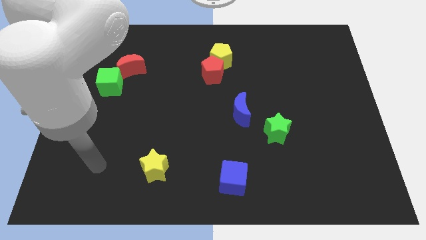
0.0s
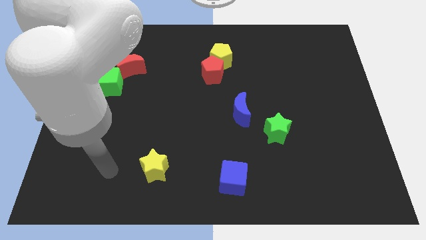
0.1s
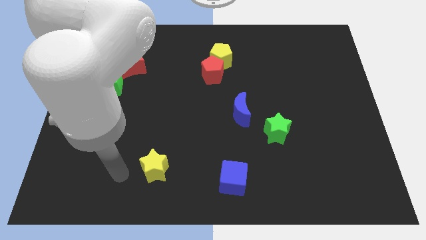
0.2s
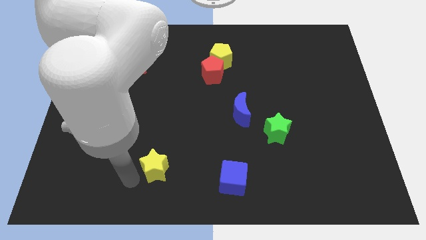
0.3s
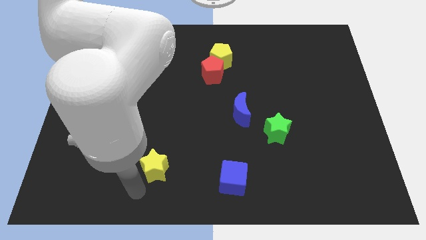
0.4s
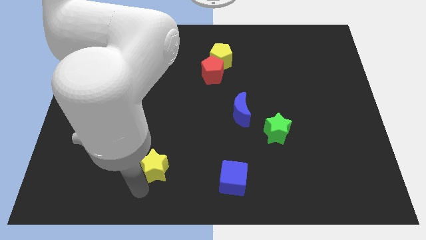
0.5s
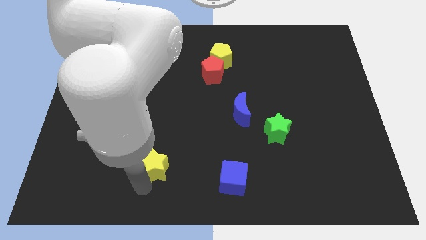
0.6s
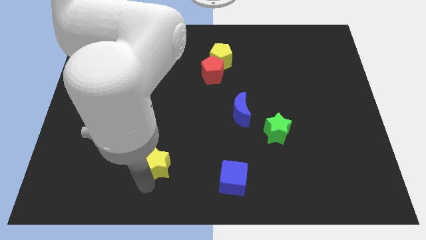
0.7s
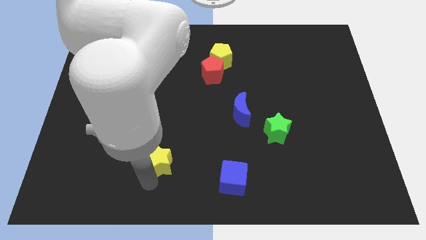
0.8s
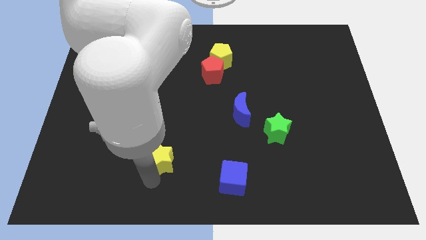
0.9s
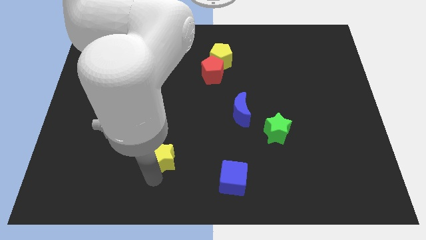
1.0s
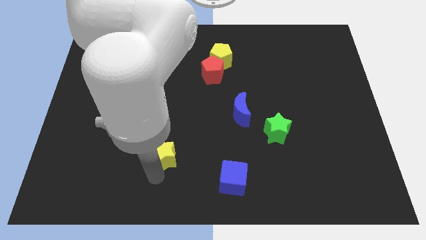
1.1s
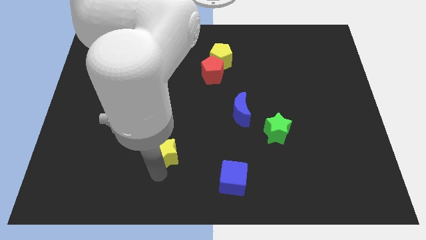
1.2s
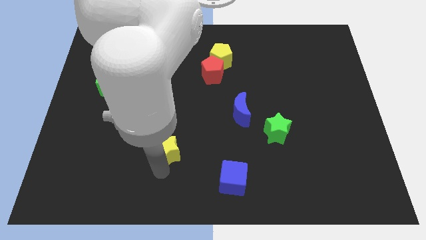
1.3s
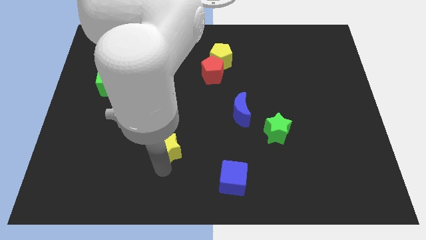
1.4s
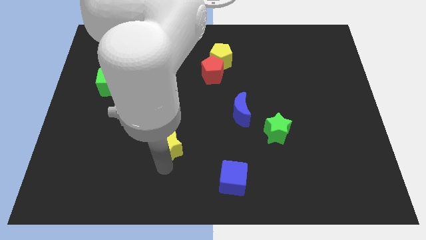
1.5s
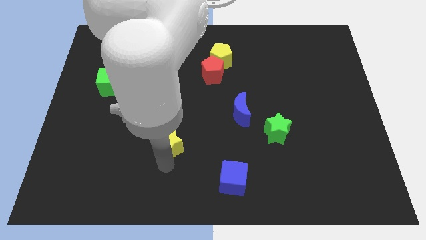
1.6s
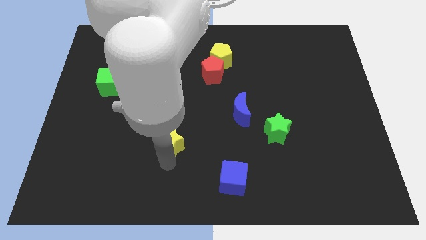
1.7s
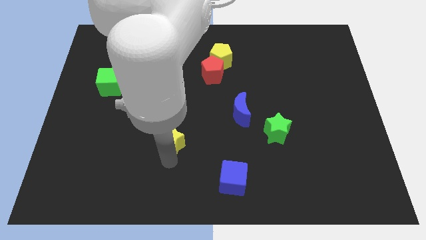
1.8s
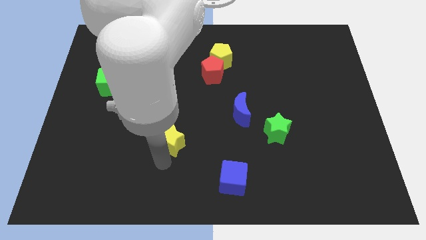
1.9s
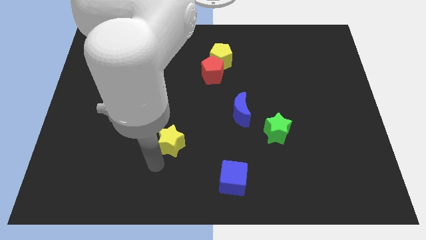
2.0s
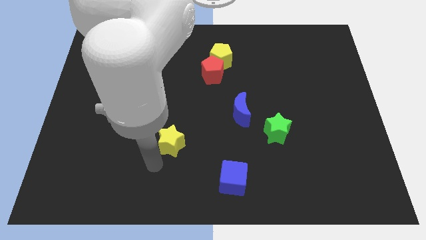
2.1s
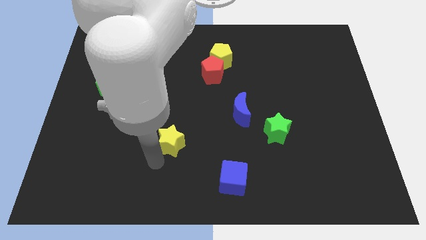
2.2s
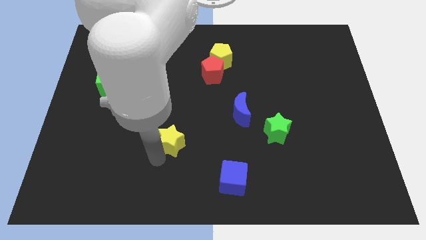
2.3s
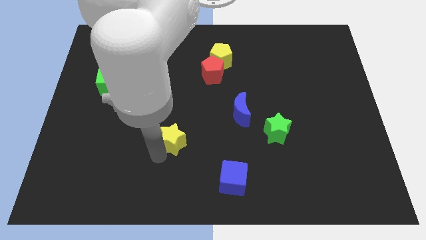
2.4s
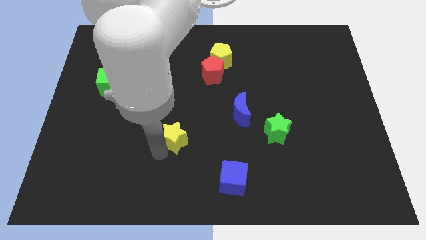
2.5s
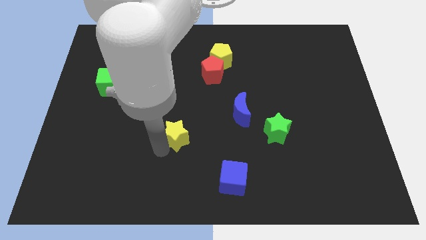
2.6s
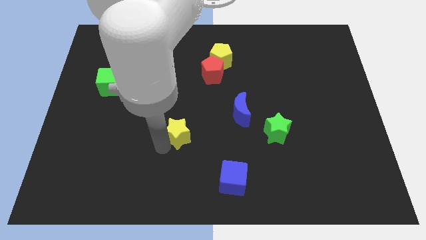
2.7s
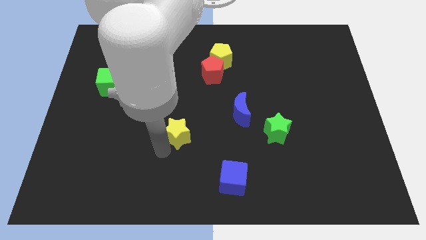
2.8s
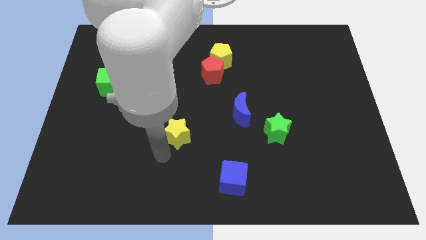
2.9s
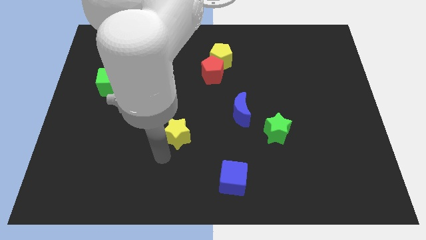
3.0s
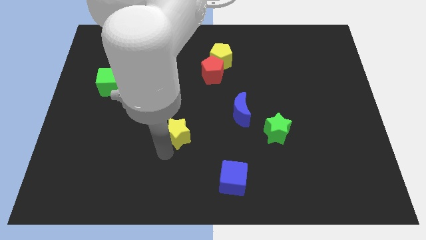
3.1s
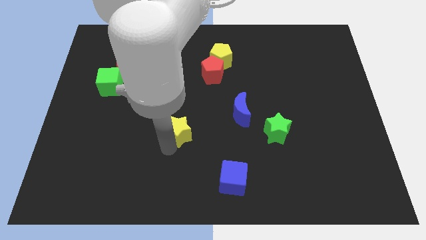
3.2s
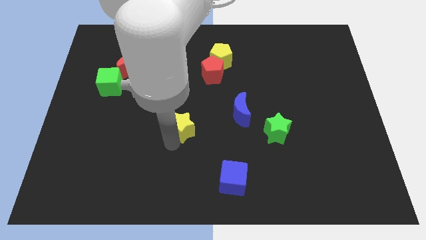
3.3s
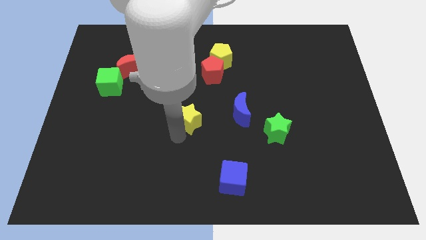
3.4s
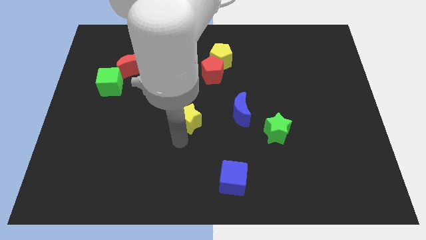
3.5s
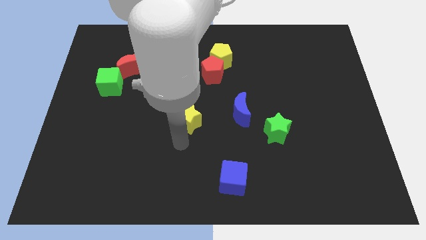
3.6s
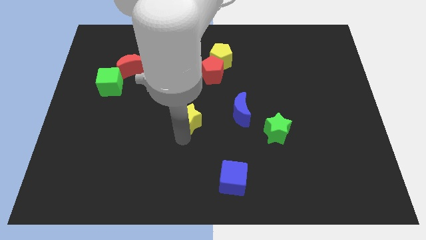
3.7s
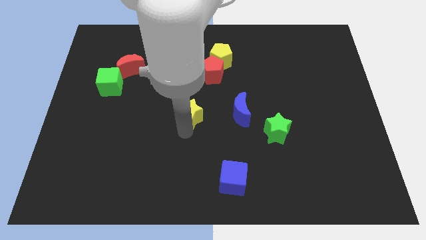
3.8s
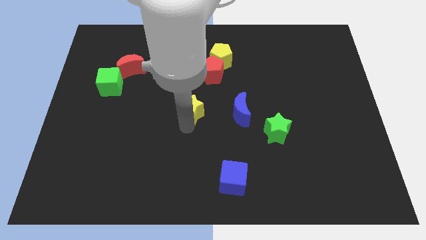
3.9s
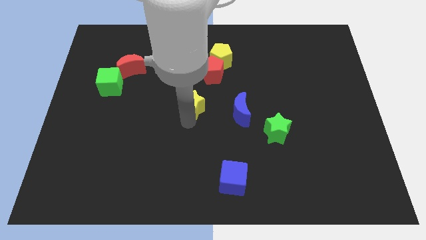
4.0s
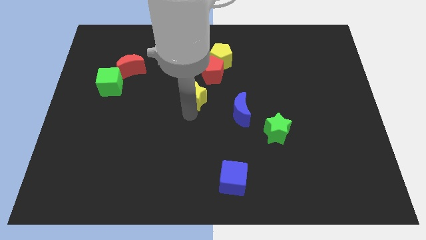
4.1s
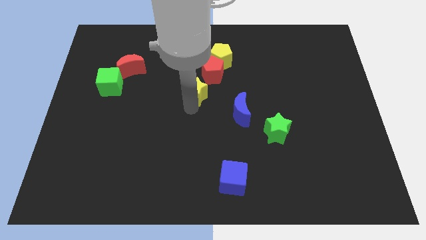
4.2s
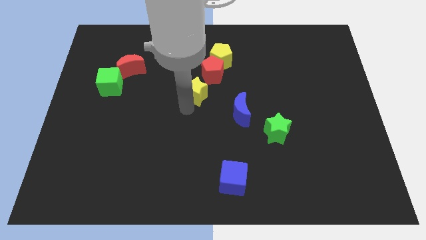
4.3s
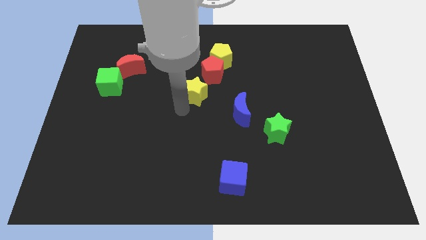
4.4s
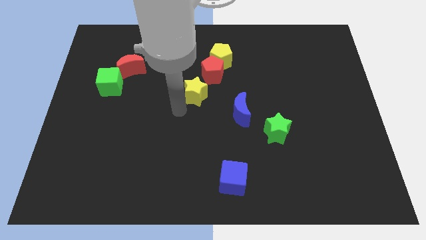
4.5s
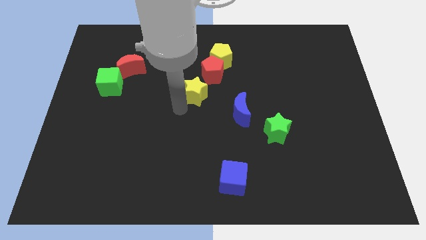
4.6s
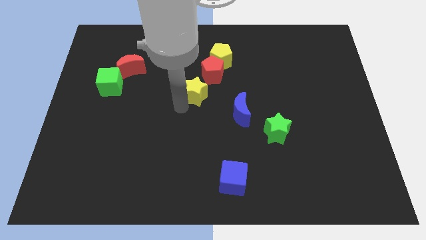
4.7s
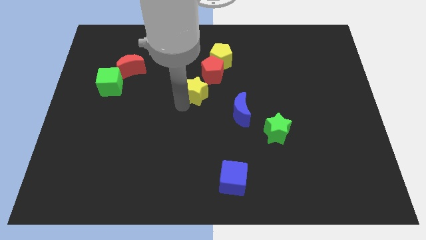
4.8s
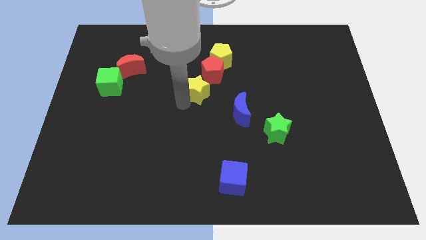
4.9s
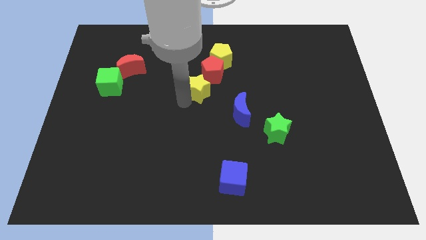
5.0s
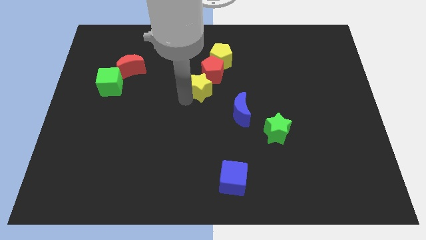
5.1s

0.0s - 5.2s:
put the yellow star to the red pentagon

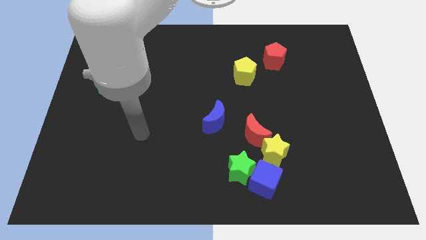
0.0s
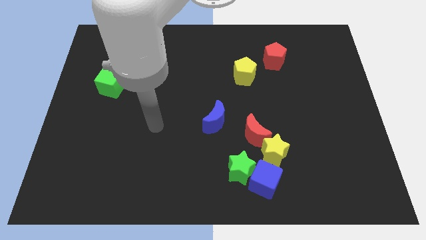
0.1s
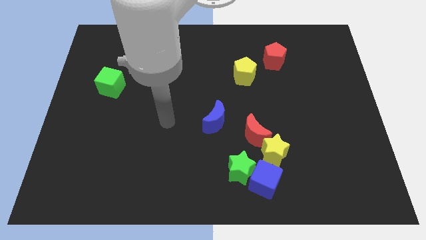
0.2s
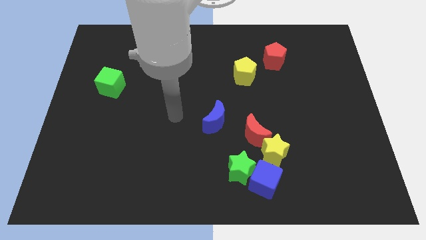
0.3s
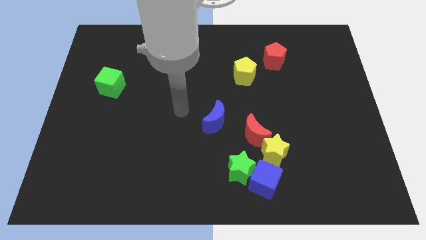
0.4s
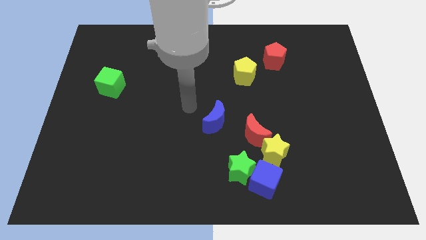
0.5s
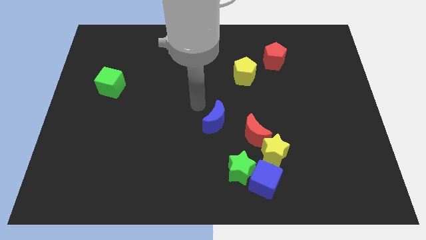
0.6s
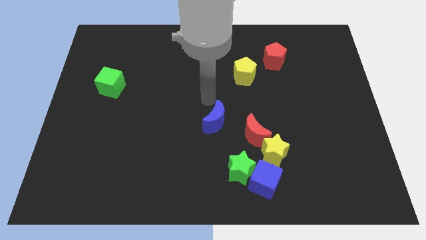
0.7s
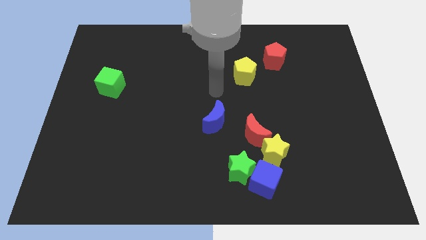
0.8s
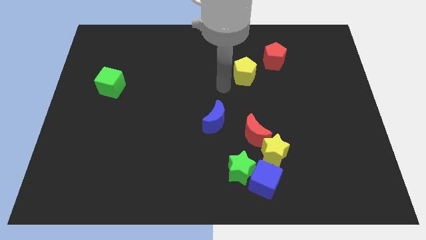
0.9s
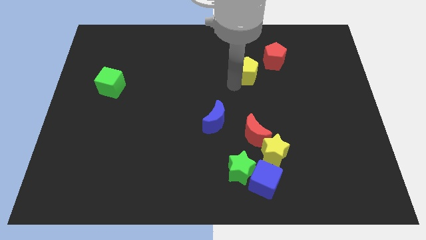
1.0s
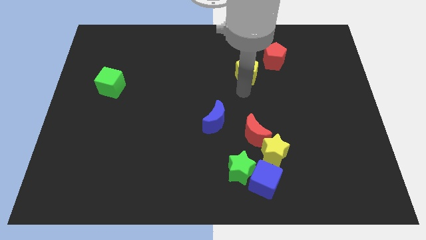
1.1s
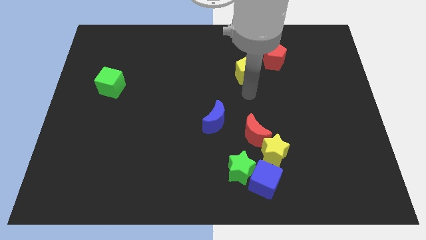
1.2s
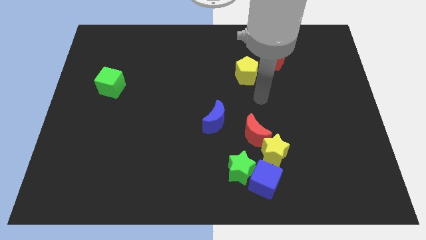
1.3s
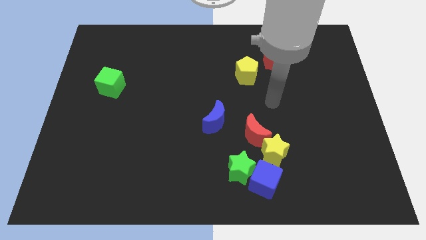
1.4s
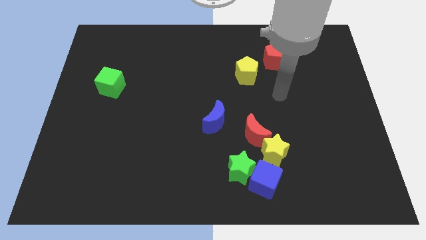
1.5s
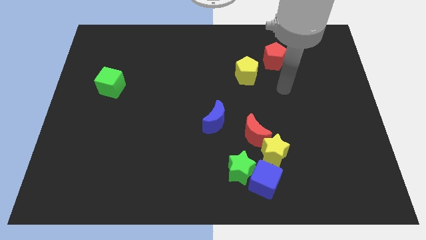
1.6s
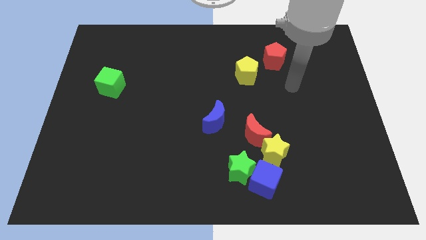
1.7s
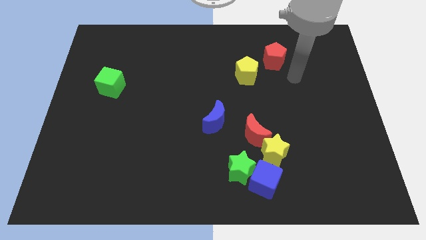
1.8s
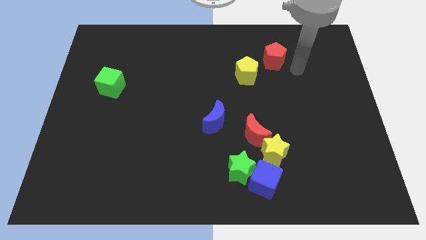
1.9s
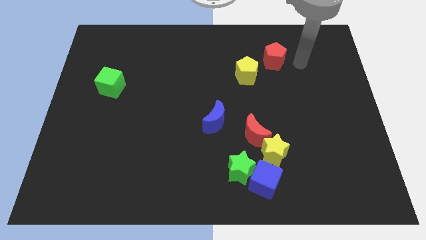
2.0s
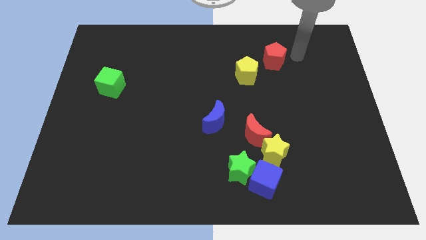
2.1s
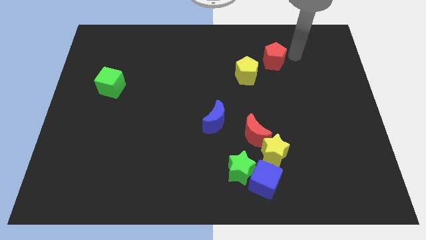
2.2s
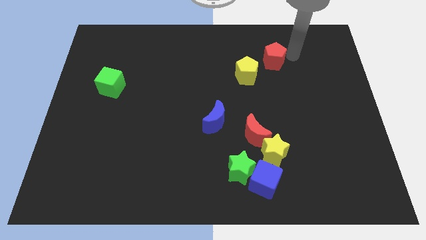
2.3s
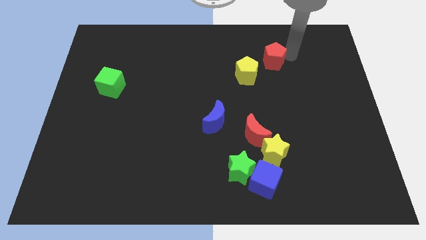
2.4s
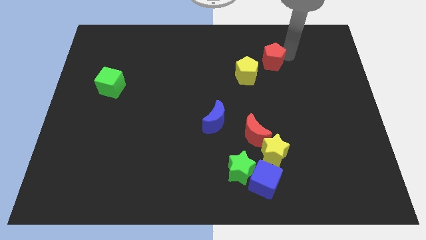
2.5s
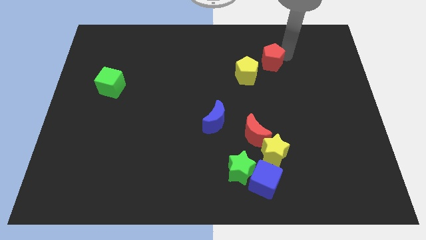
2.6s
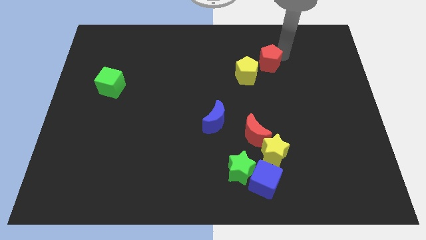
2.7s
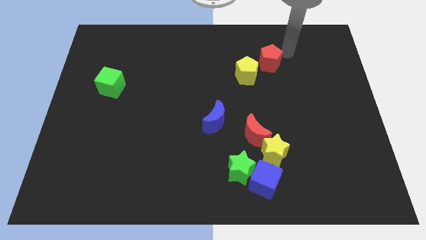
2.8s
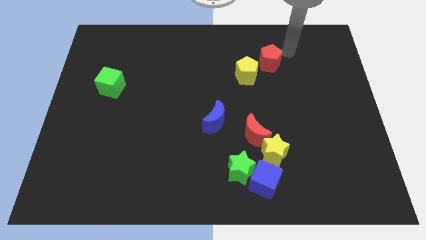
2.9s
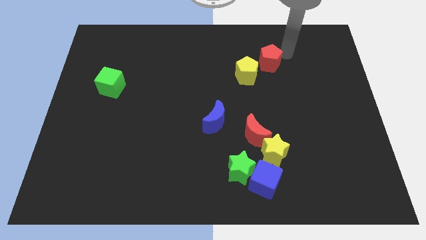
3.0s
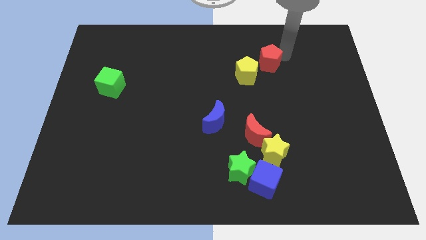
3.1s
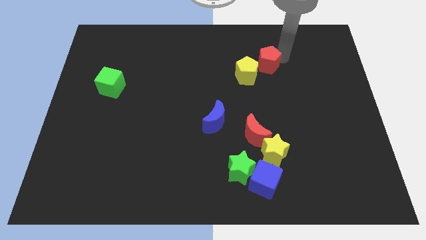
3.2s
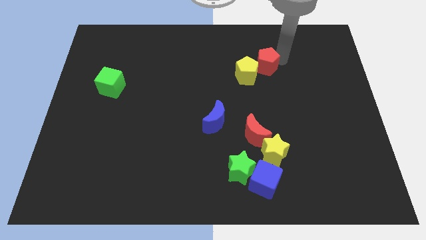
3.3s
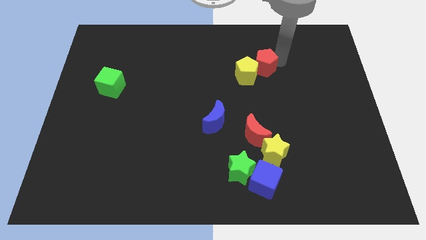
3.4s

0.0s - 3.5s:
push the red pentagon next to the yellow pentagon
